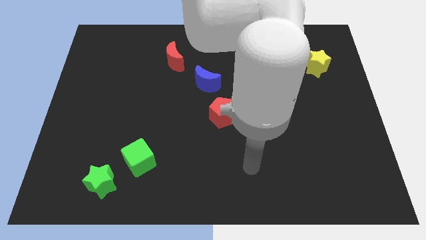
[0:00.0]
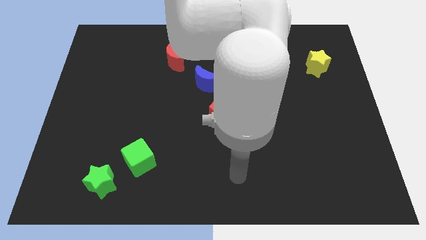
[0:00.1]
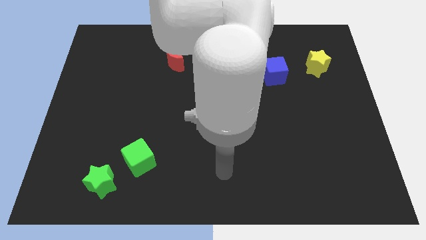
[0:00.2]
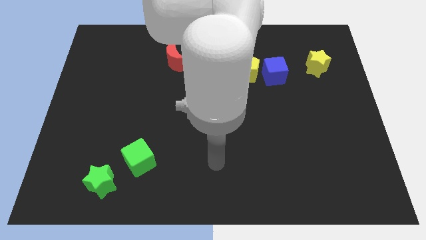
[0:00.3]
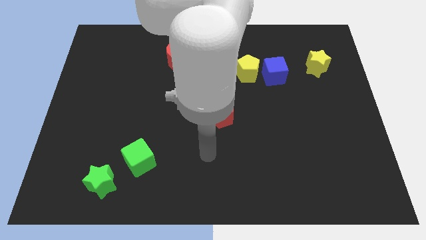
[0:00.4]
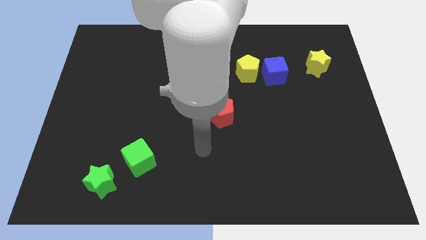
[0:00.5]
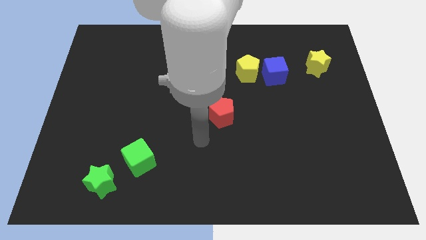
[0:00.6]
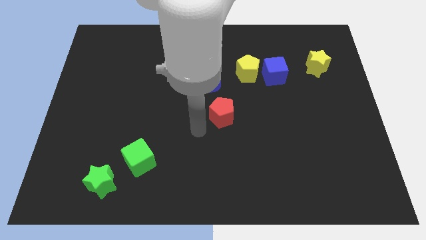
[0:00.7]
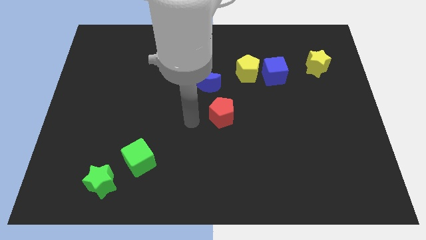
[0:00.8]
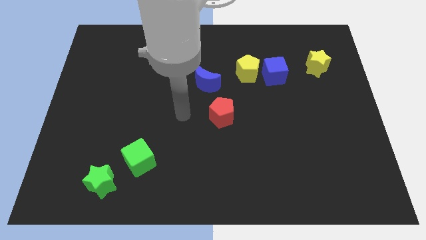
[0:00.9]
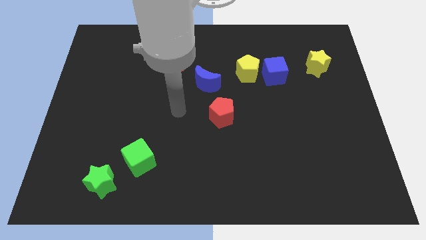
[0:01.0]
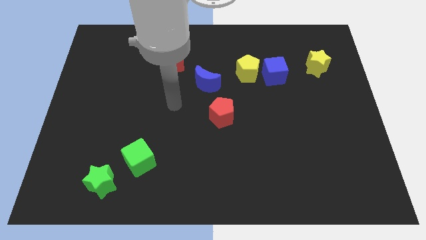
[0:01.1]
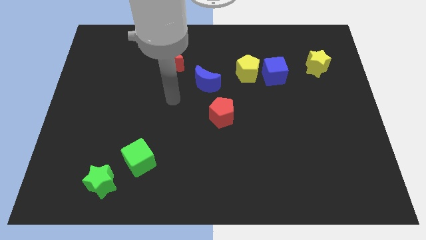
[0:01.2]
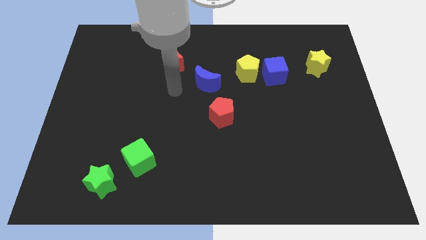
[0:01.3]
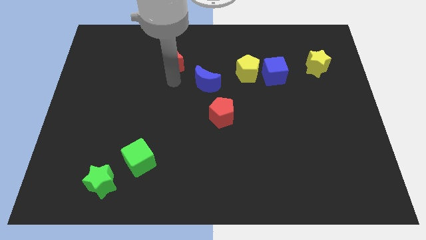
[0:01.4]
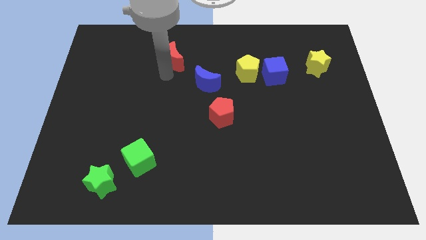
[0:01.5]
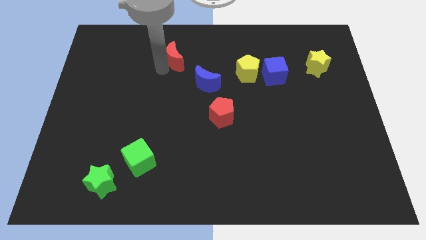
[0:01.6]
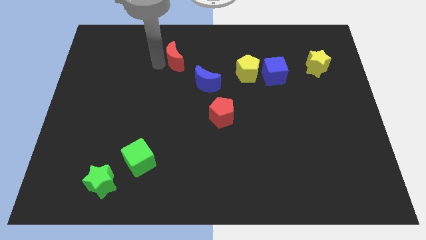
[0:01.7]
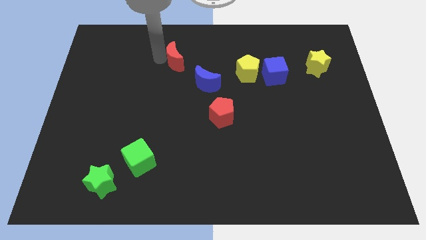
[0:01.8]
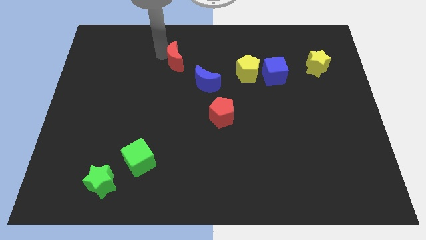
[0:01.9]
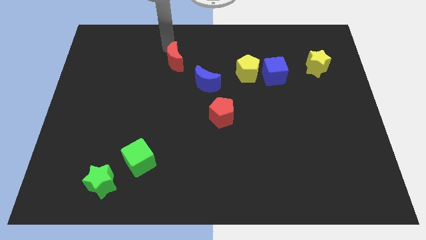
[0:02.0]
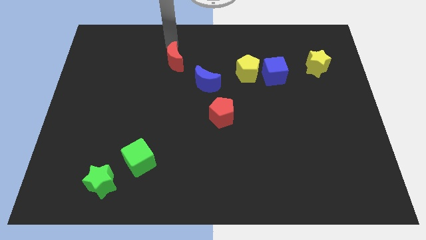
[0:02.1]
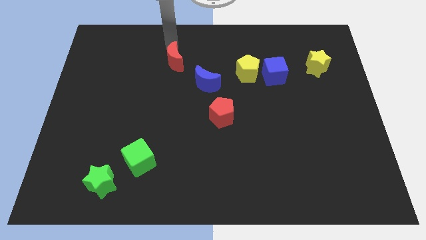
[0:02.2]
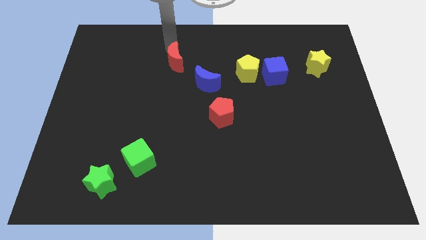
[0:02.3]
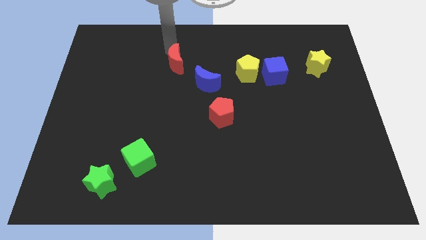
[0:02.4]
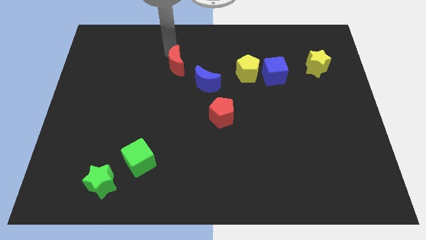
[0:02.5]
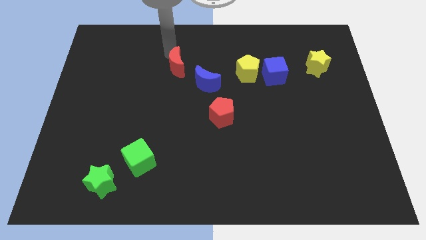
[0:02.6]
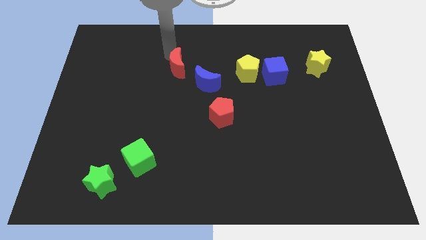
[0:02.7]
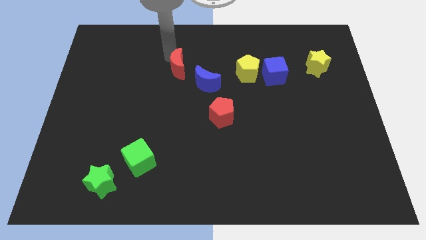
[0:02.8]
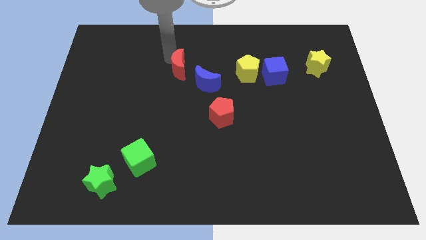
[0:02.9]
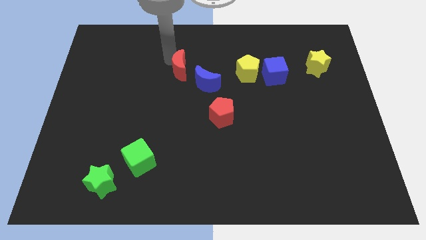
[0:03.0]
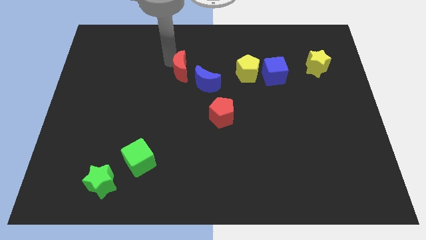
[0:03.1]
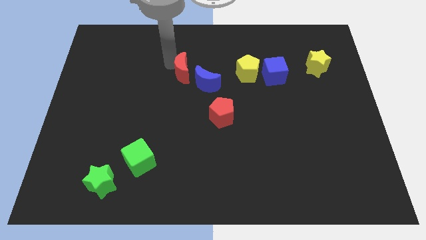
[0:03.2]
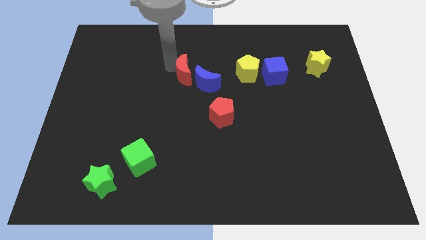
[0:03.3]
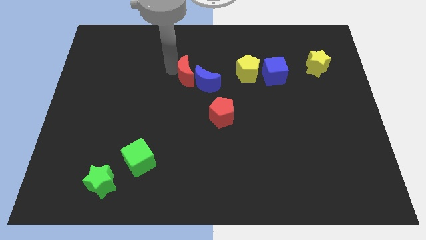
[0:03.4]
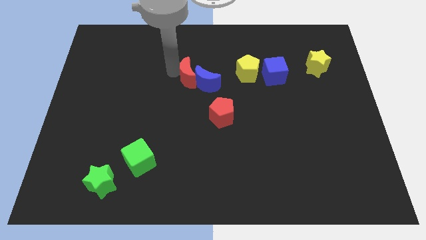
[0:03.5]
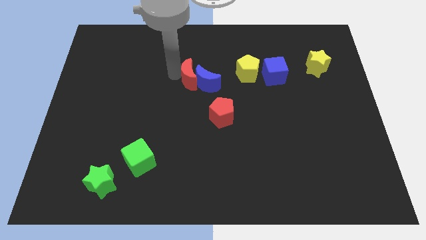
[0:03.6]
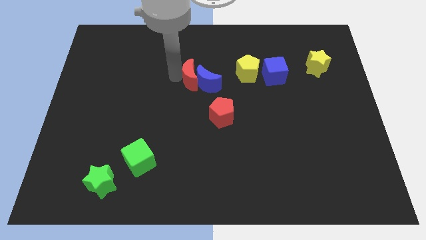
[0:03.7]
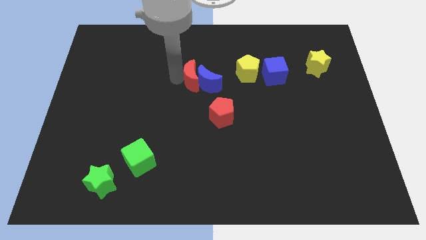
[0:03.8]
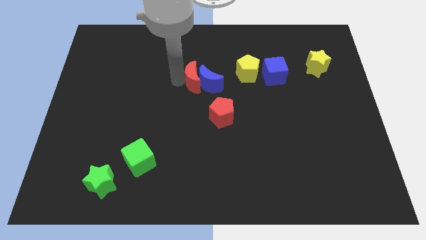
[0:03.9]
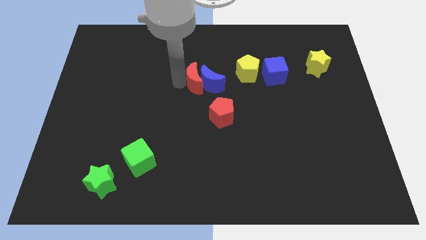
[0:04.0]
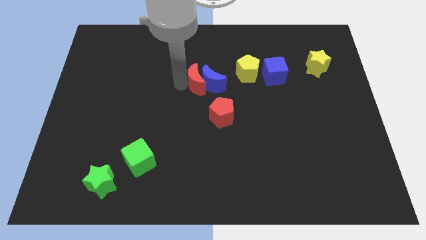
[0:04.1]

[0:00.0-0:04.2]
push the red moon down a bit

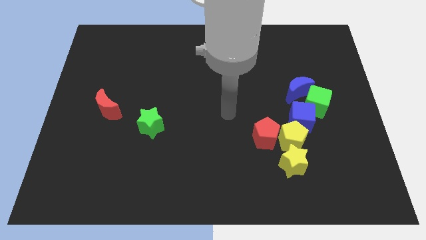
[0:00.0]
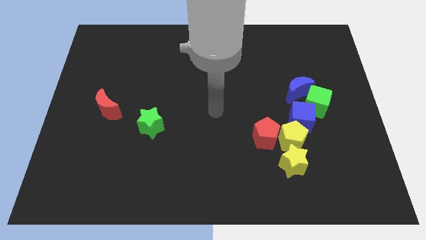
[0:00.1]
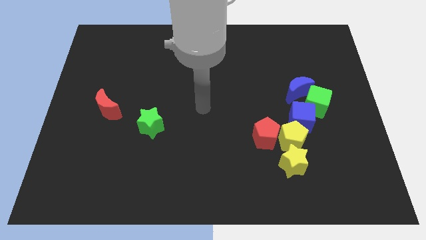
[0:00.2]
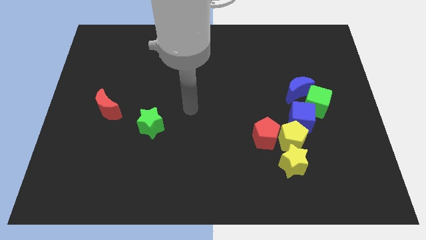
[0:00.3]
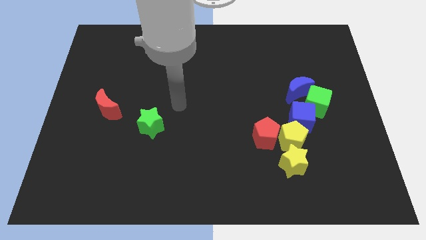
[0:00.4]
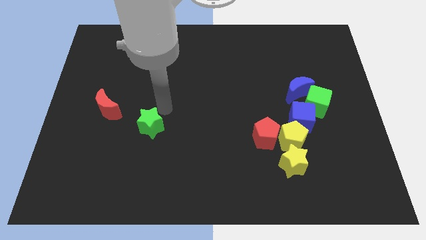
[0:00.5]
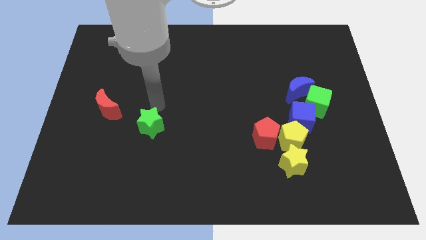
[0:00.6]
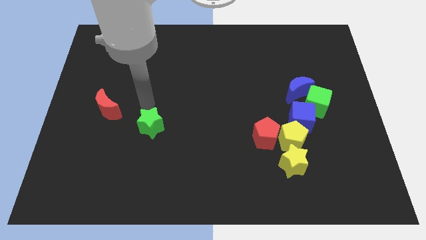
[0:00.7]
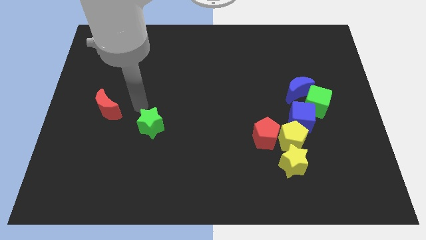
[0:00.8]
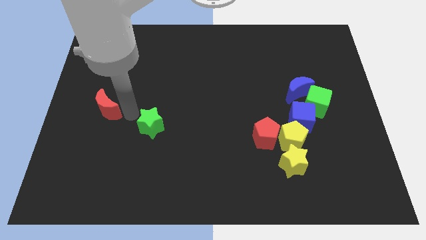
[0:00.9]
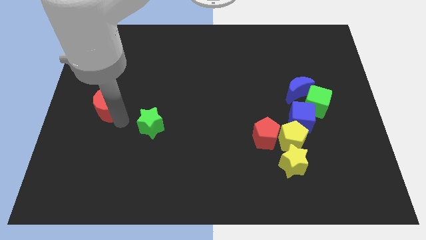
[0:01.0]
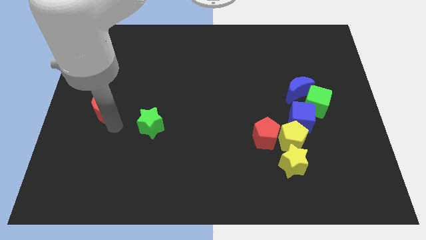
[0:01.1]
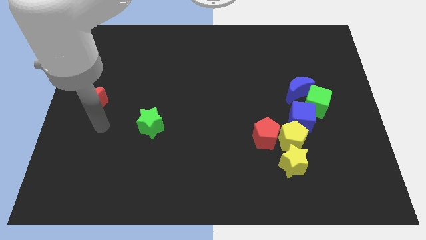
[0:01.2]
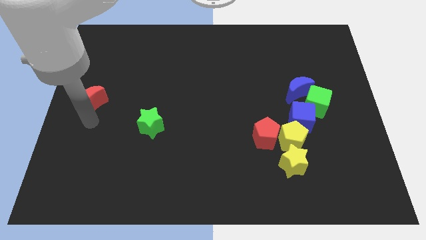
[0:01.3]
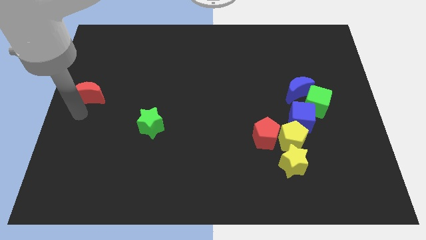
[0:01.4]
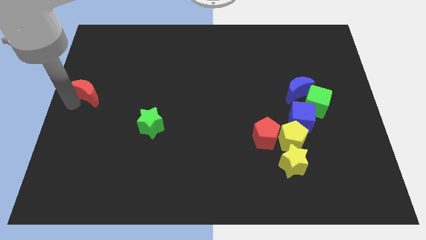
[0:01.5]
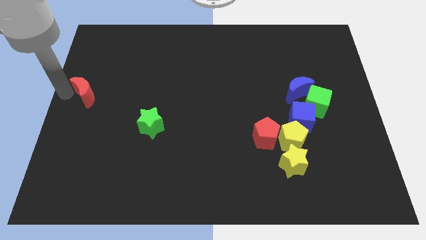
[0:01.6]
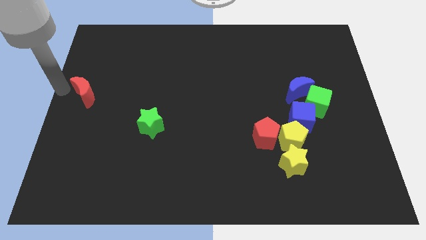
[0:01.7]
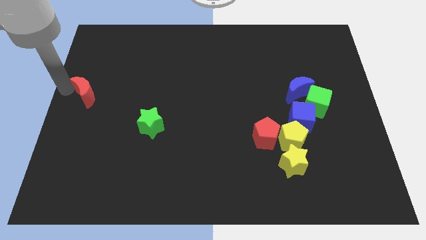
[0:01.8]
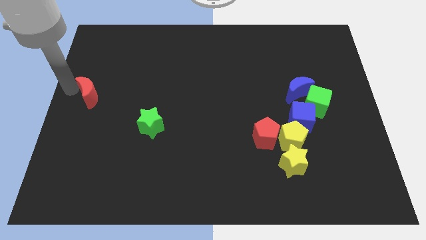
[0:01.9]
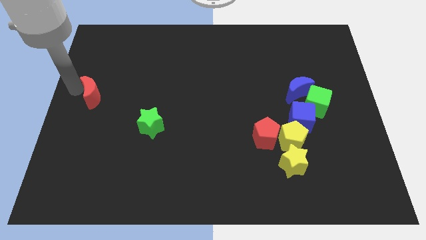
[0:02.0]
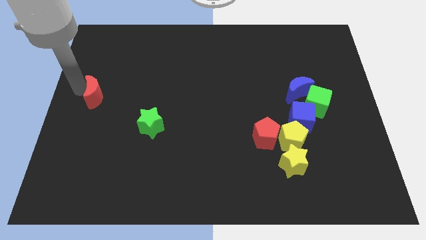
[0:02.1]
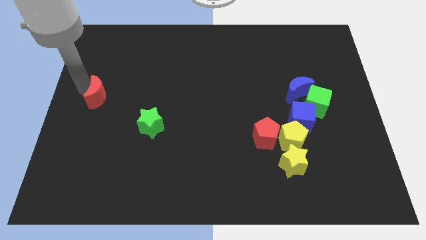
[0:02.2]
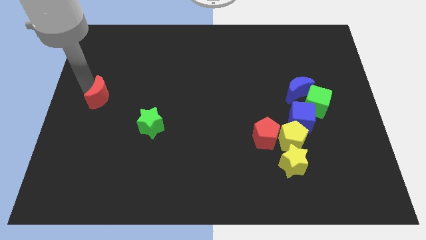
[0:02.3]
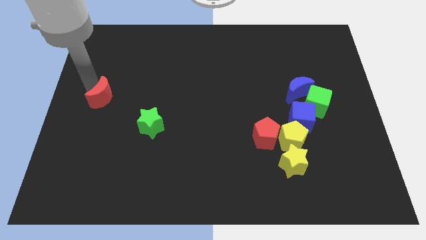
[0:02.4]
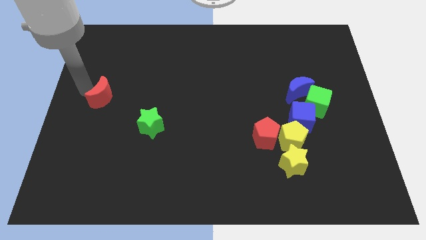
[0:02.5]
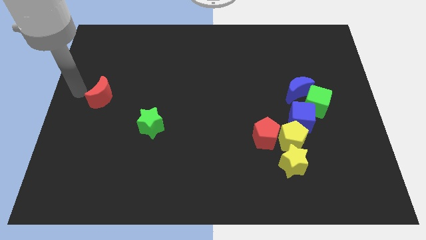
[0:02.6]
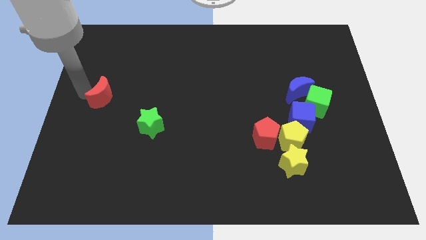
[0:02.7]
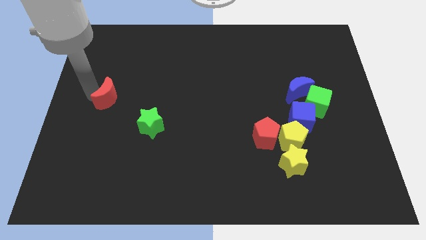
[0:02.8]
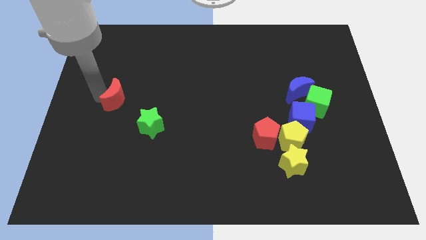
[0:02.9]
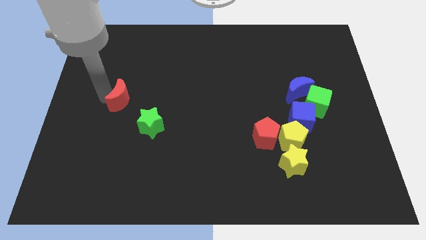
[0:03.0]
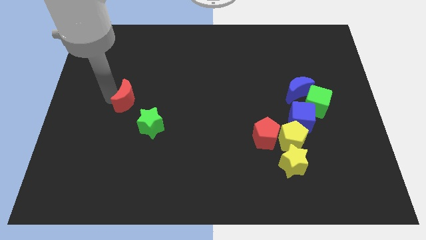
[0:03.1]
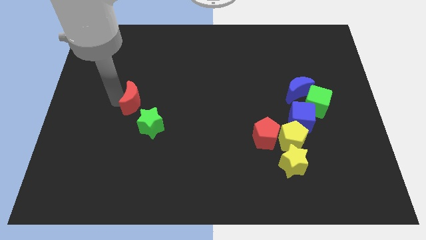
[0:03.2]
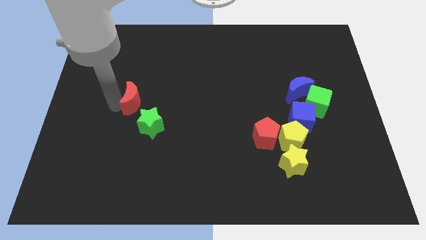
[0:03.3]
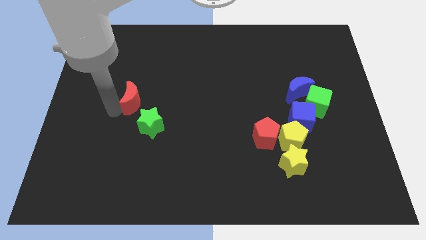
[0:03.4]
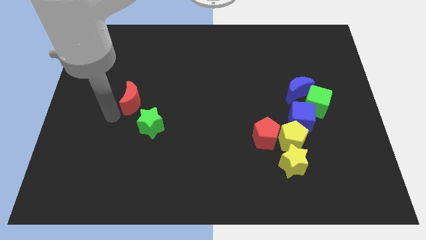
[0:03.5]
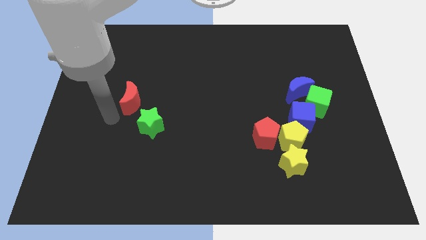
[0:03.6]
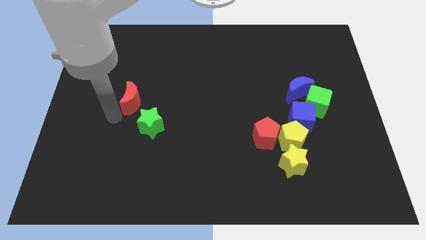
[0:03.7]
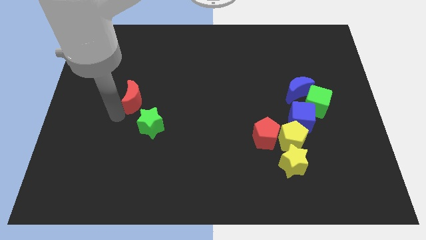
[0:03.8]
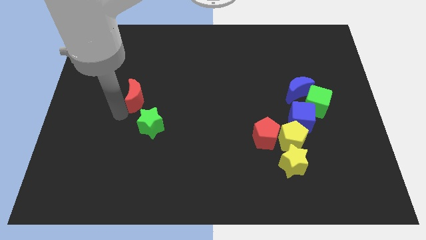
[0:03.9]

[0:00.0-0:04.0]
push the red moon diagonally upwards and to the right a little bit
